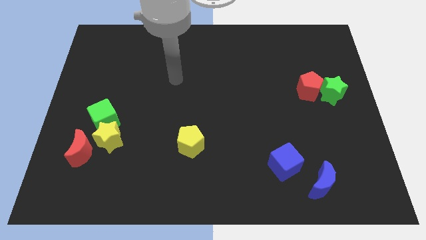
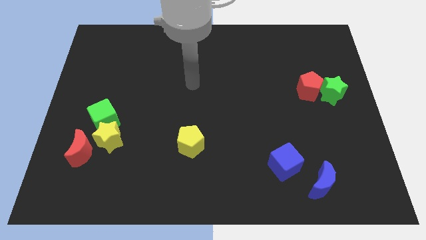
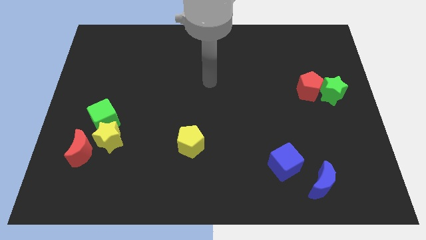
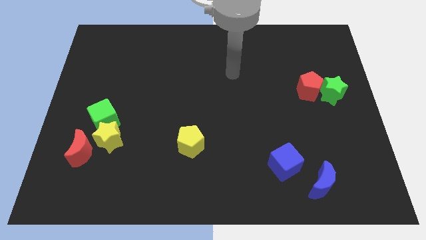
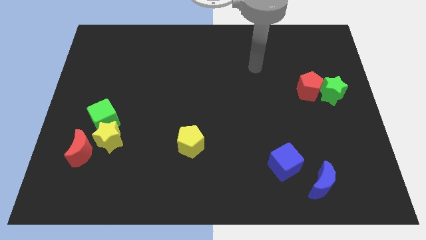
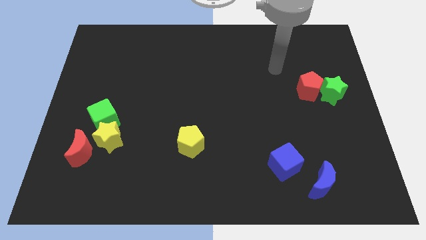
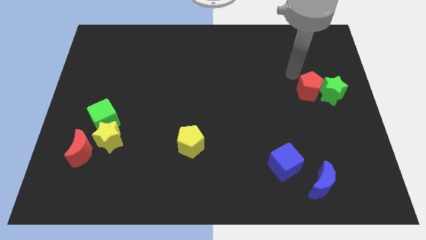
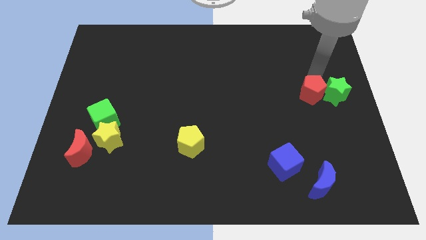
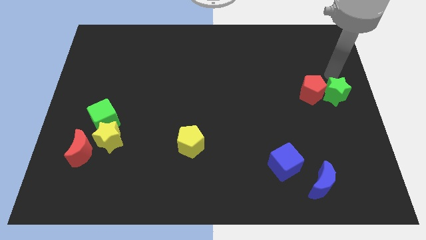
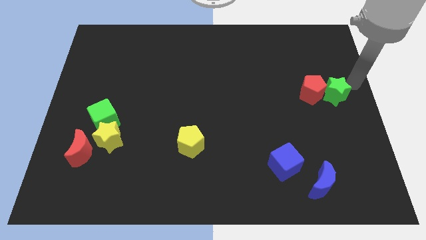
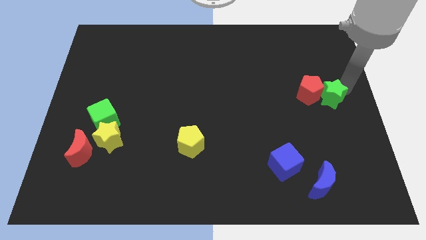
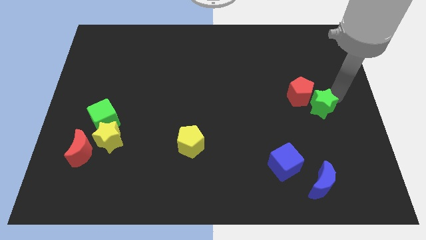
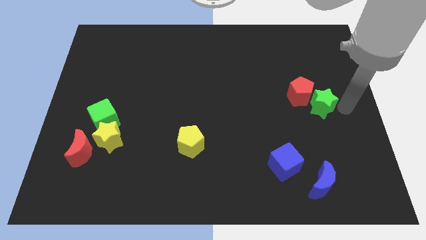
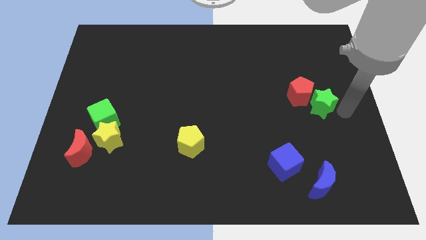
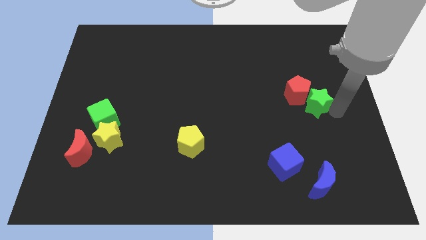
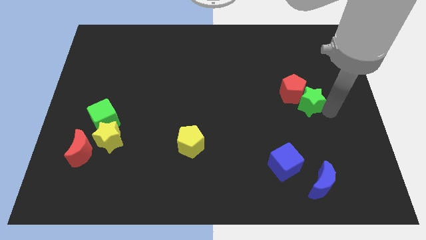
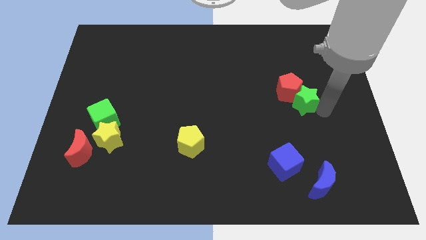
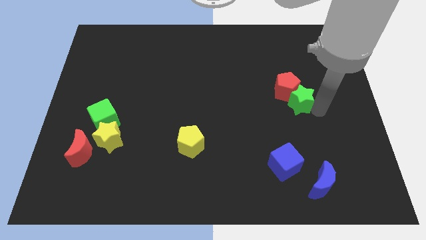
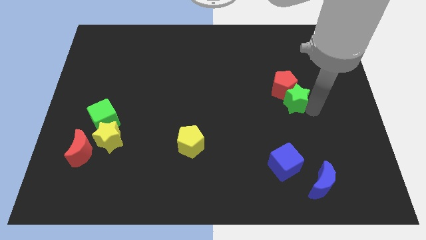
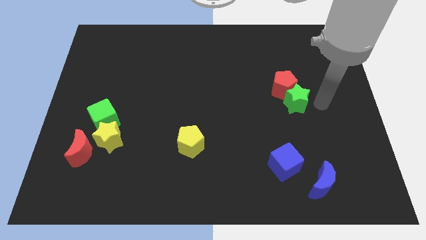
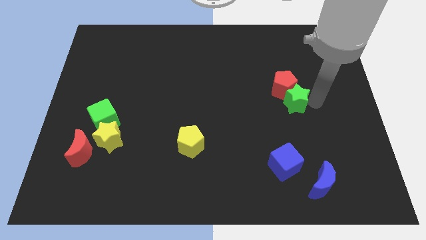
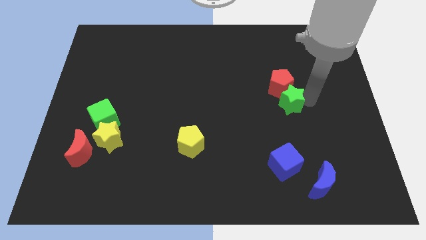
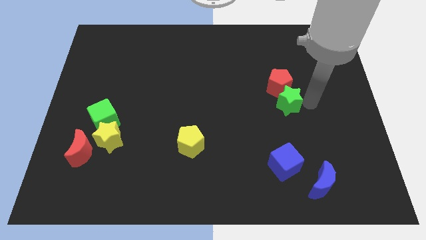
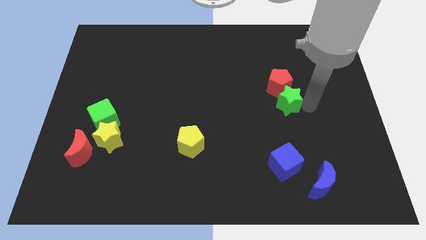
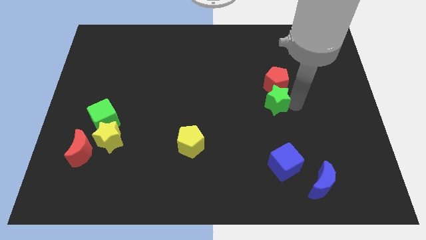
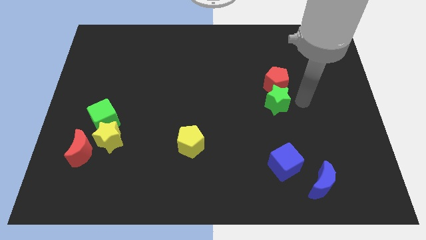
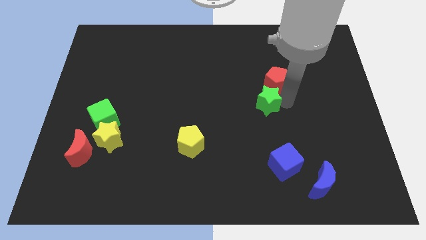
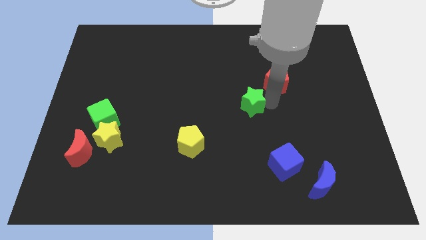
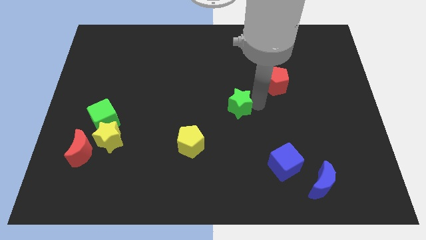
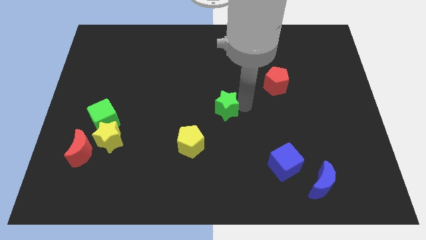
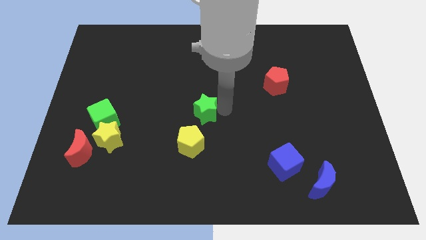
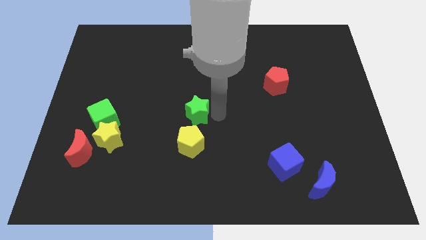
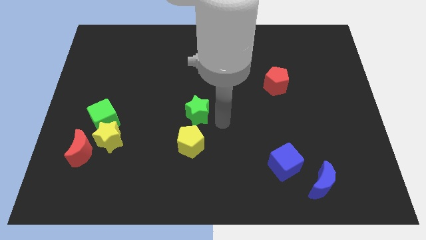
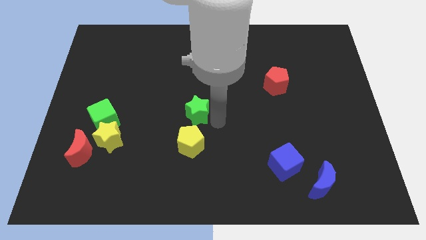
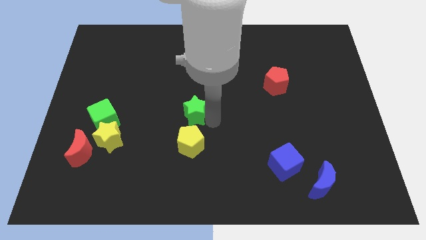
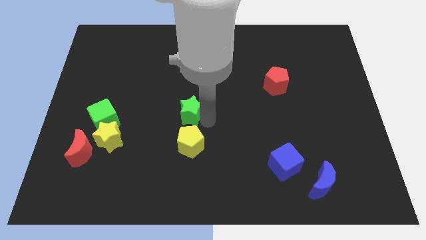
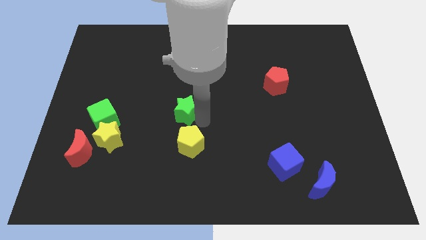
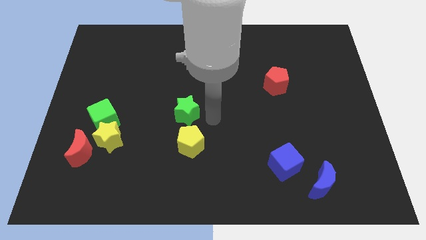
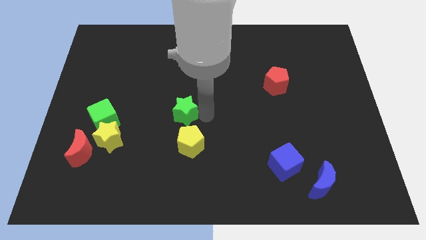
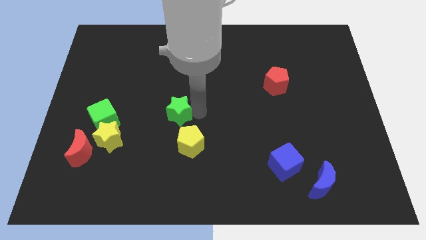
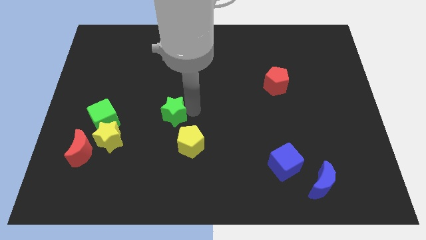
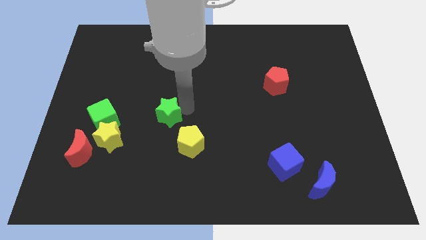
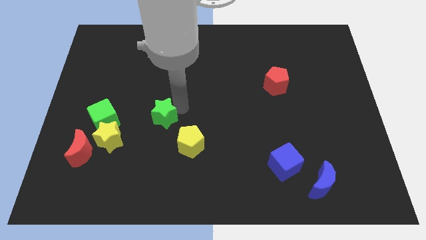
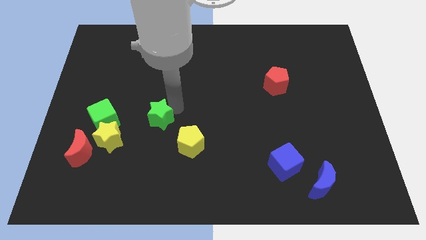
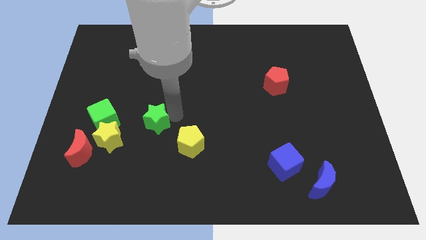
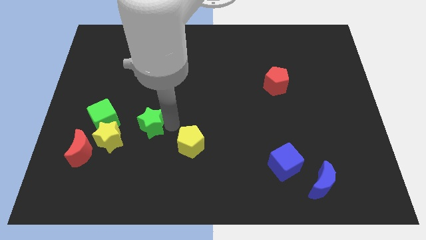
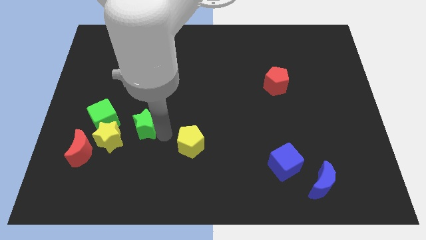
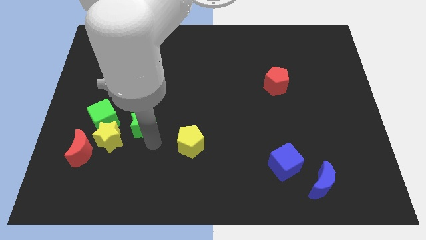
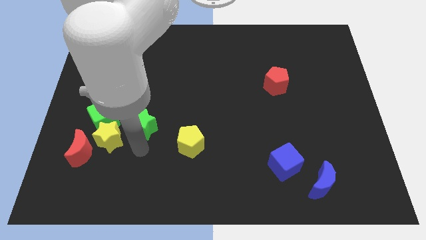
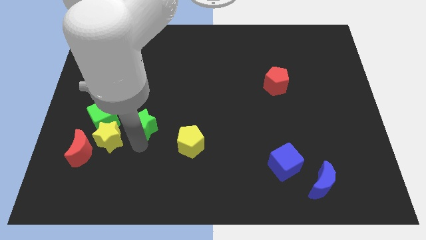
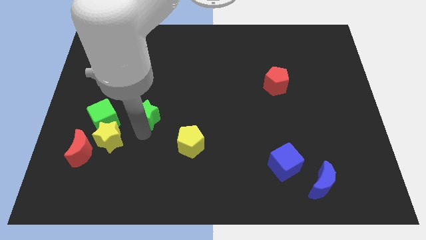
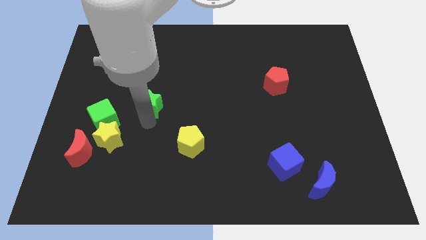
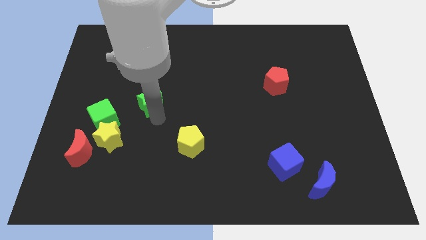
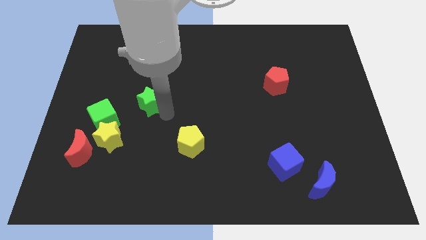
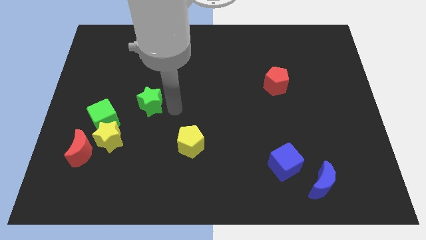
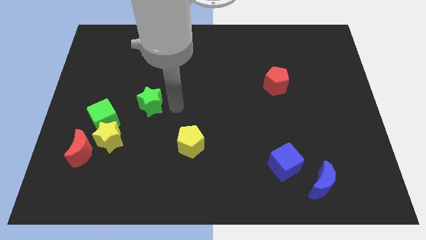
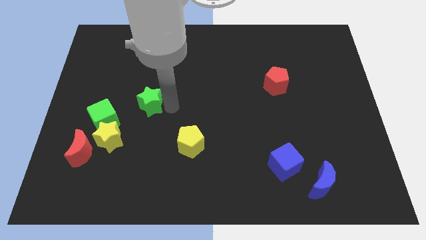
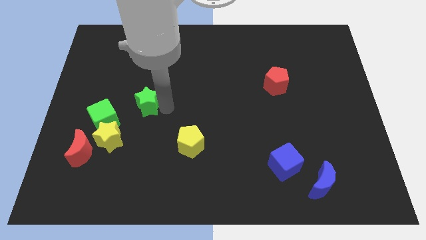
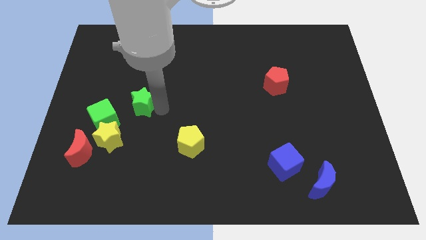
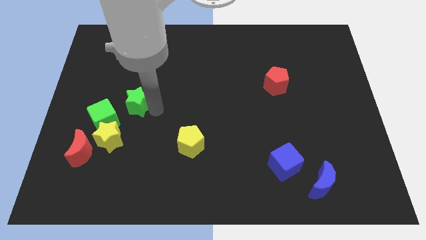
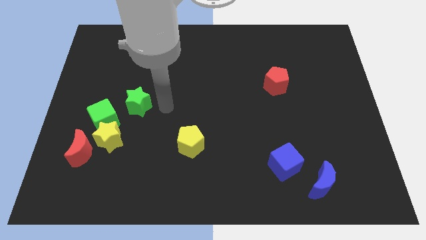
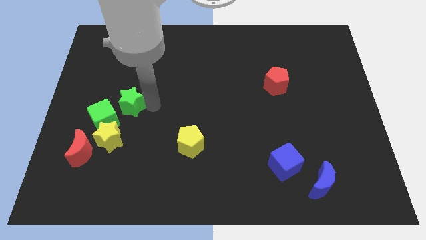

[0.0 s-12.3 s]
slide the green star to the top side of the yellow star

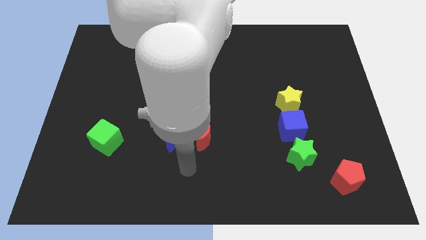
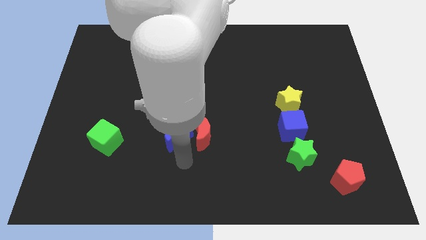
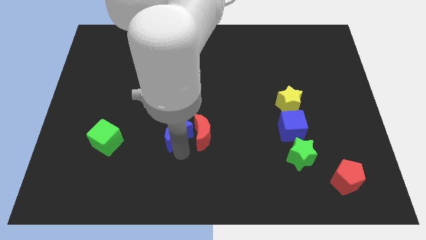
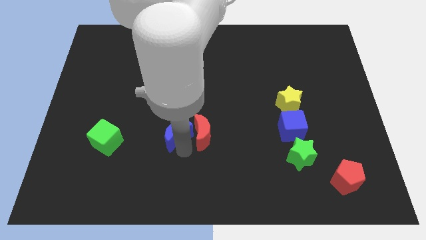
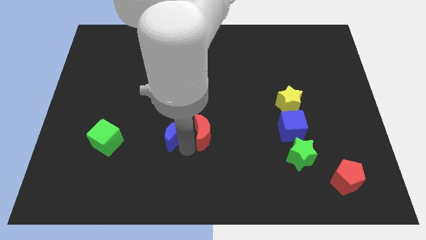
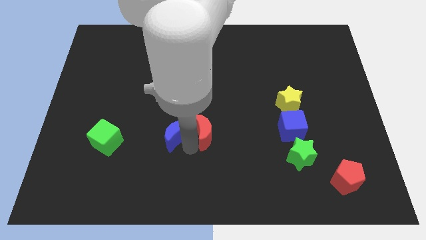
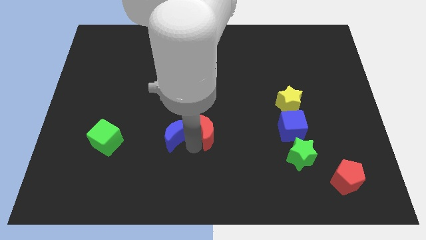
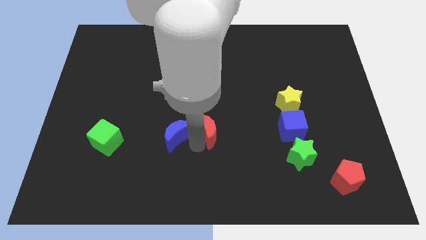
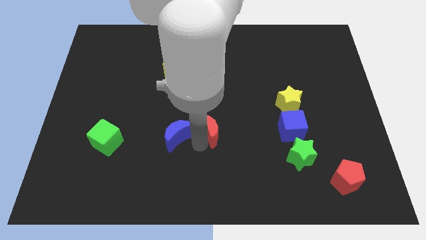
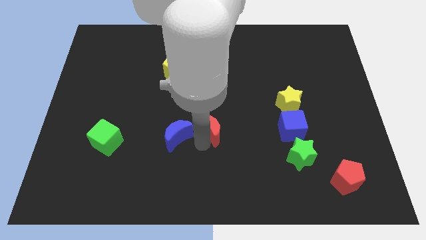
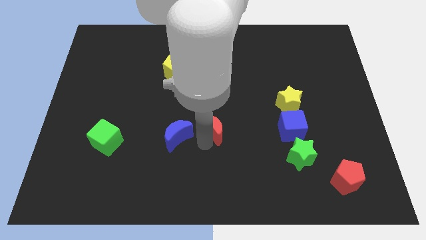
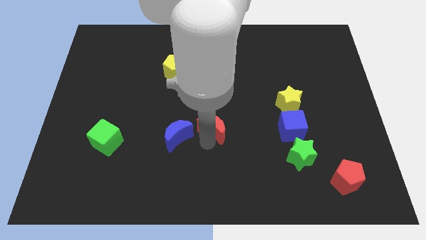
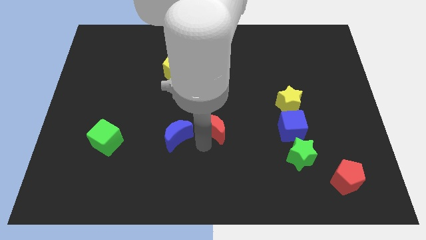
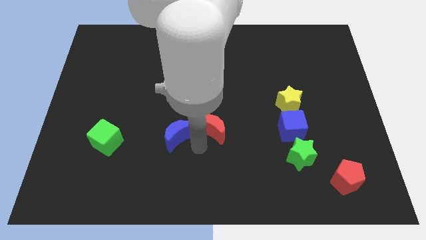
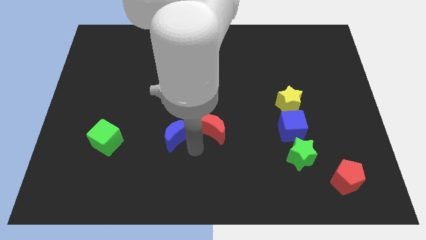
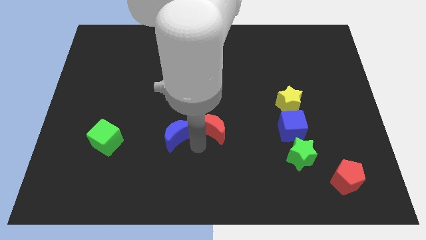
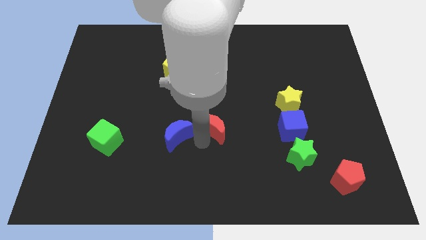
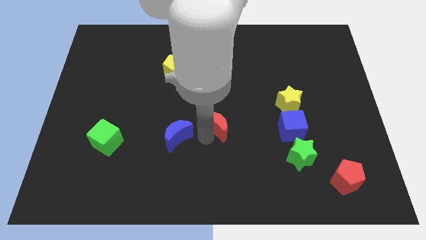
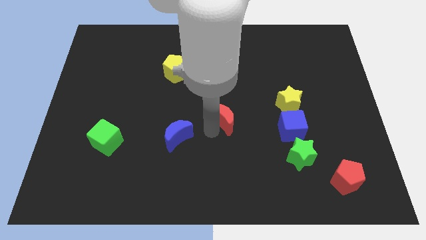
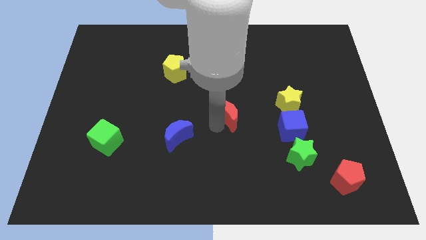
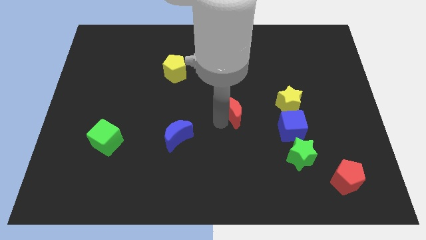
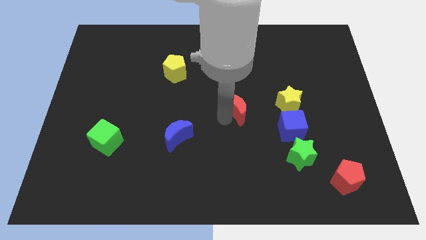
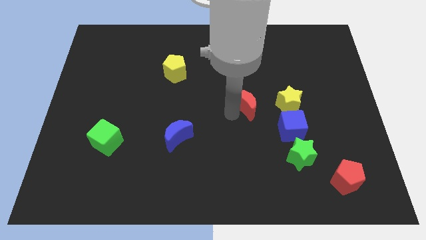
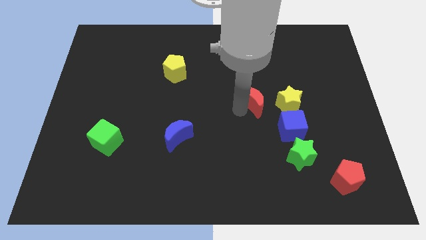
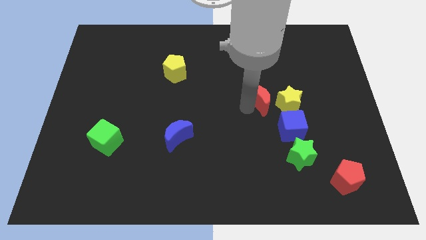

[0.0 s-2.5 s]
slide the red moon to the top left side of the yellow star
